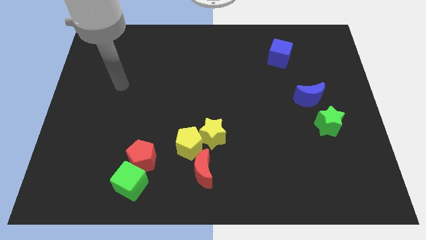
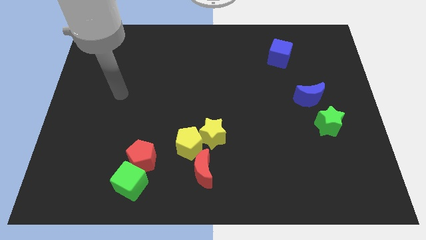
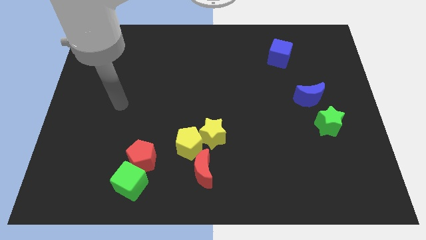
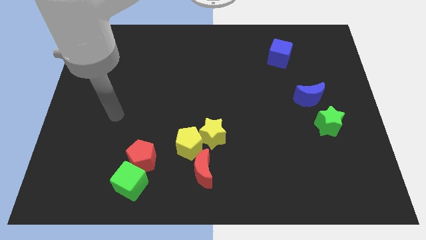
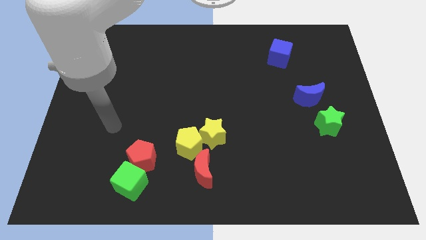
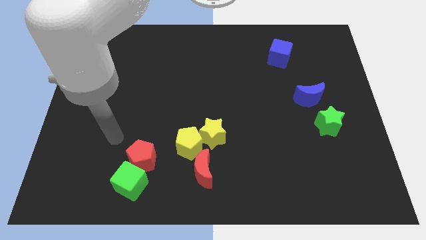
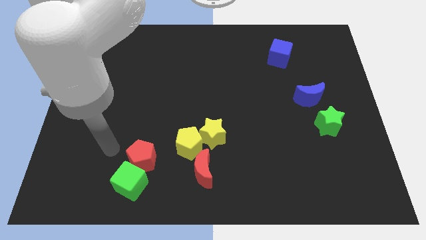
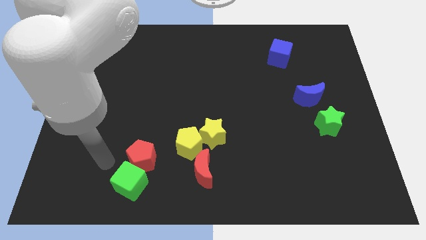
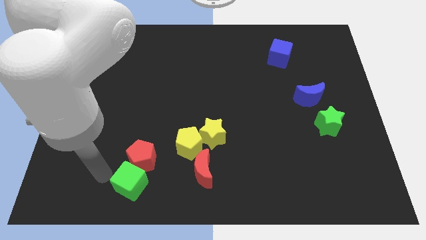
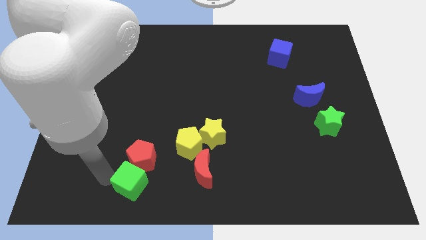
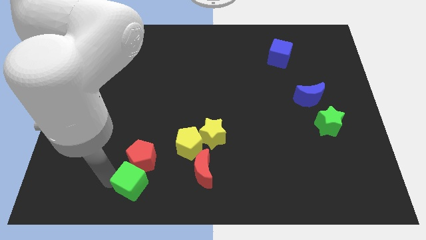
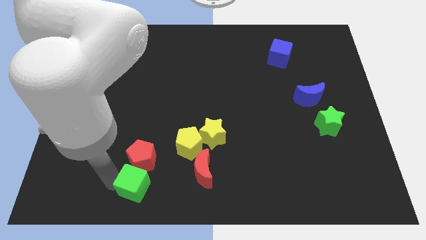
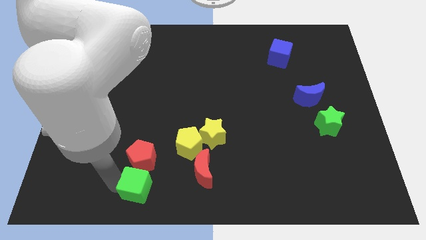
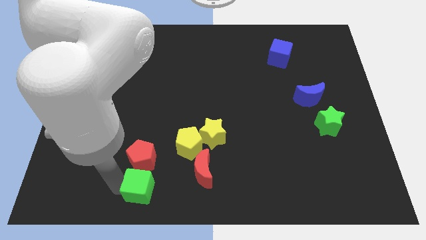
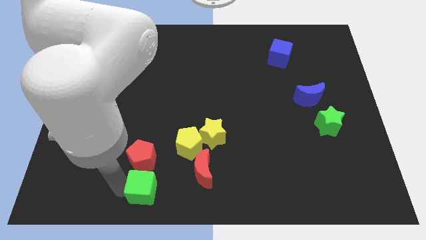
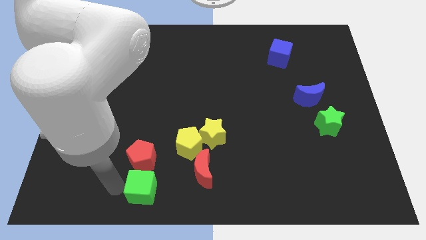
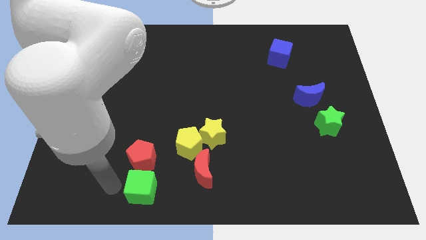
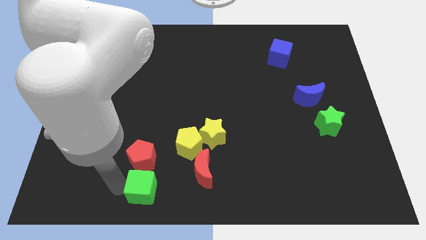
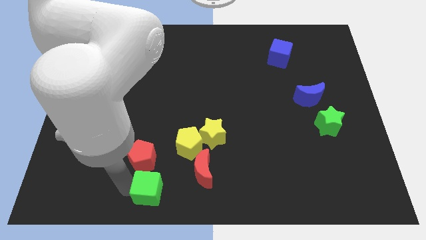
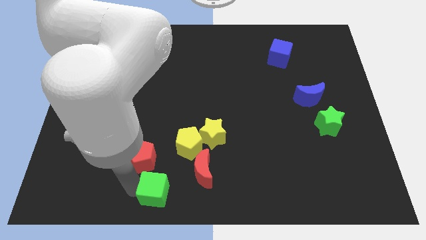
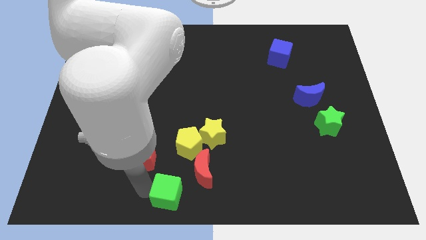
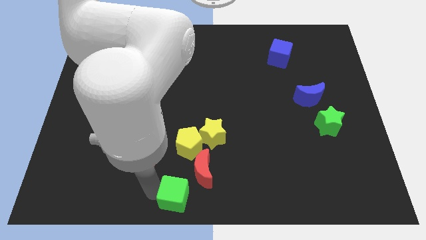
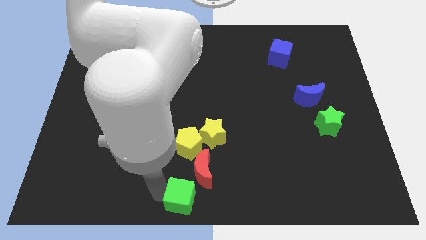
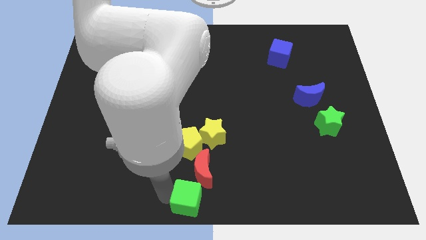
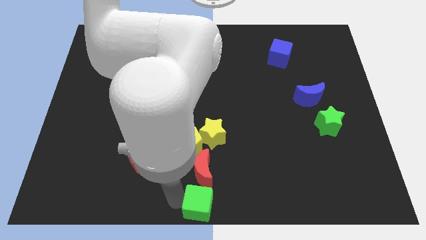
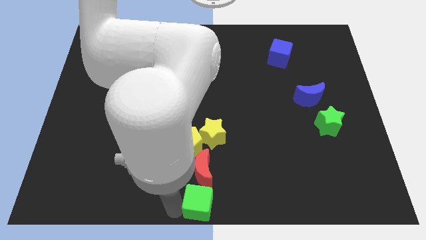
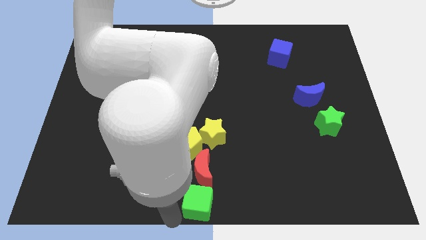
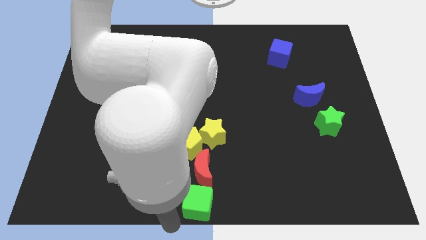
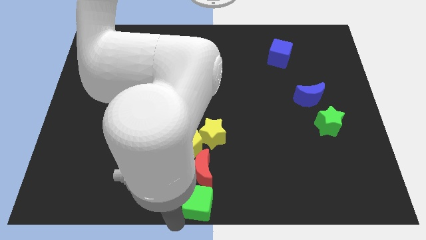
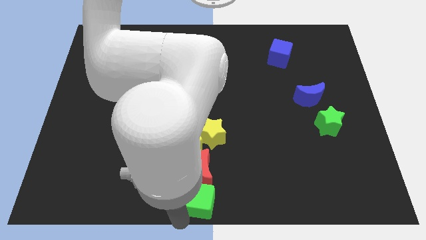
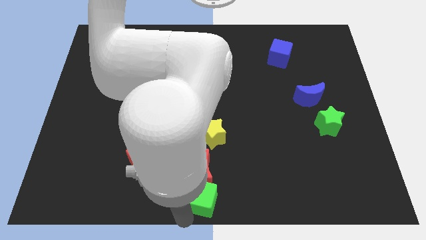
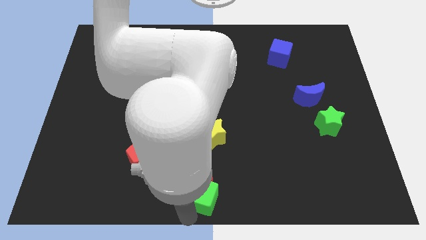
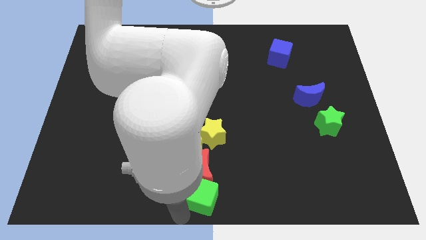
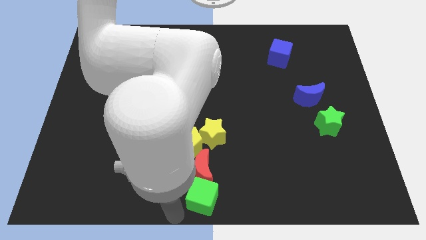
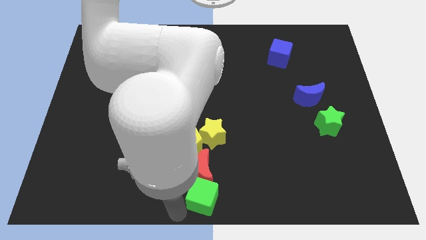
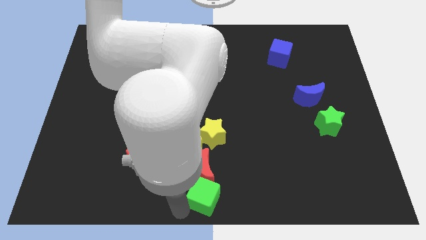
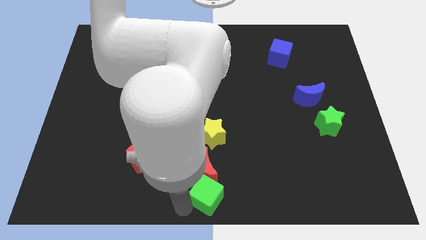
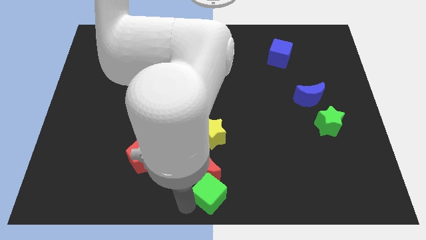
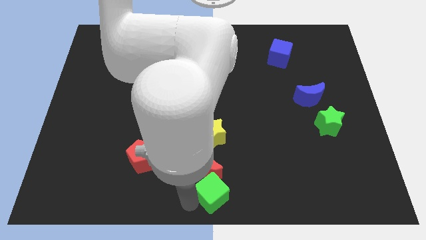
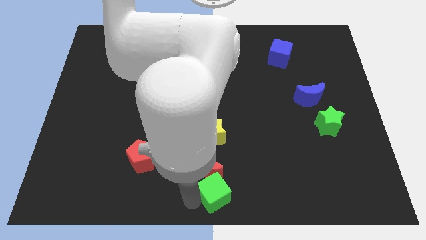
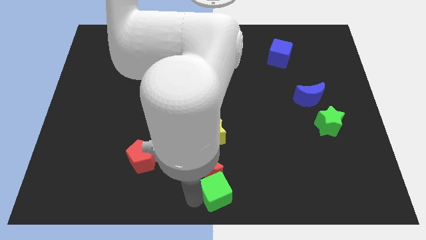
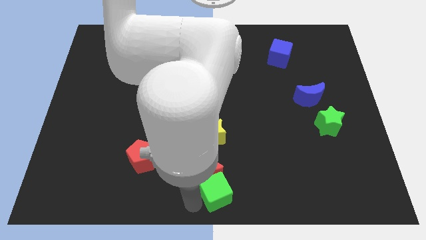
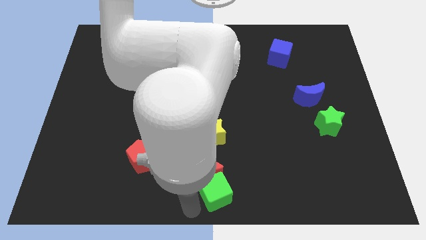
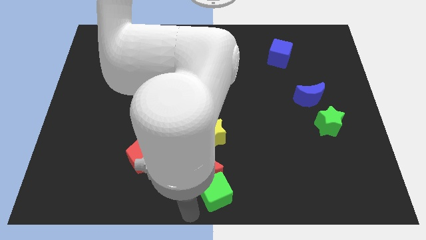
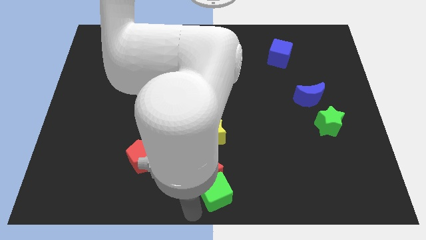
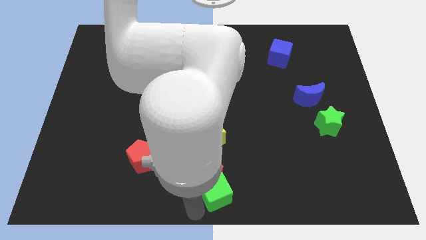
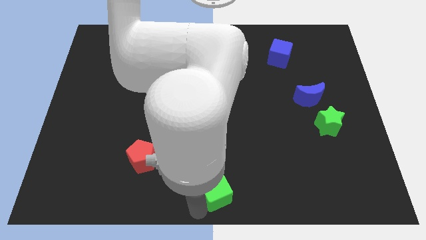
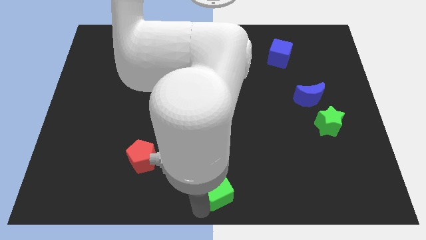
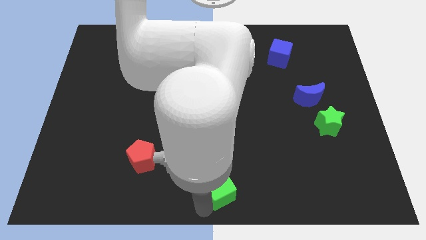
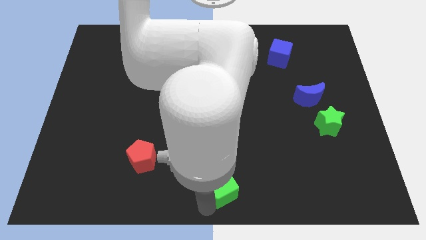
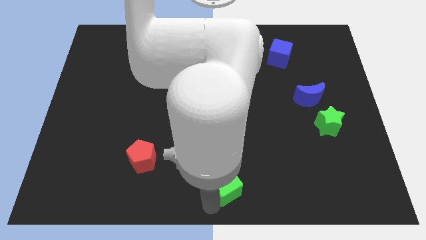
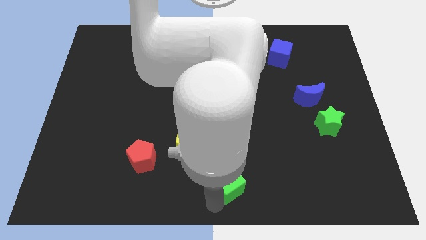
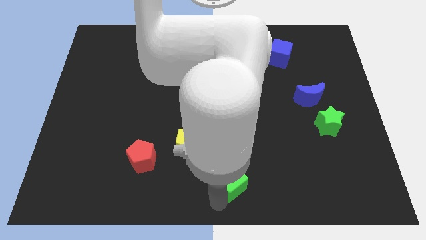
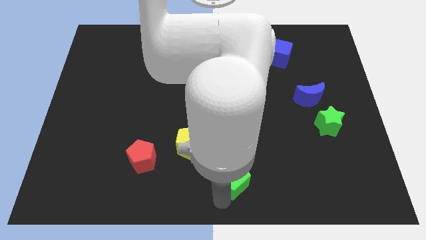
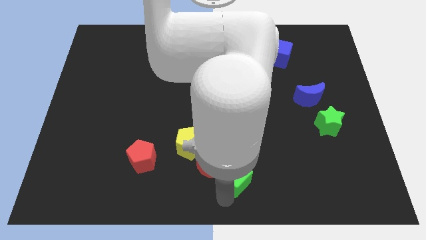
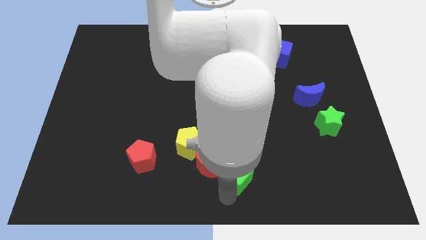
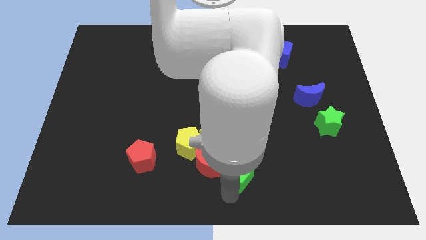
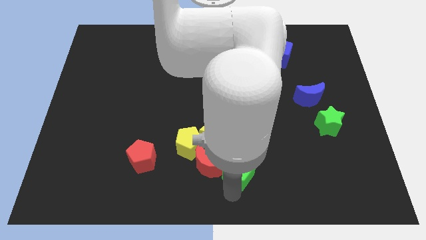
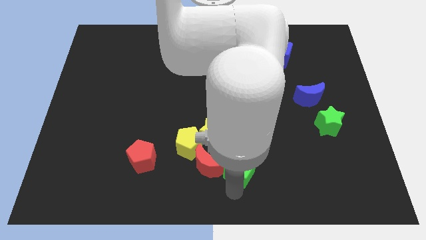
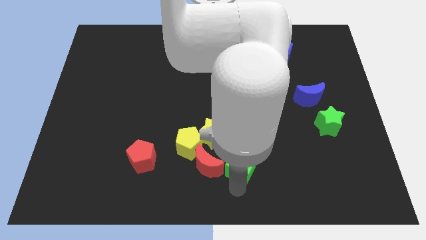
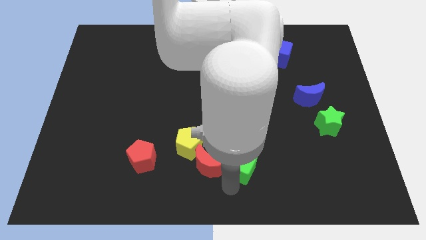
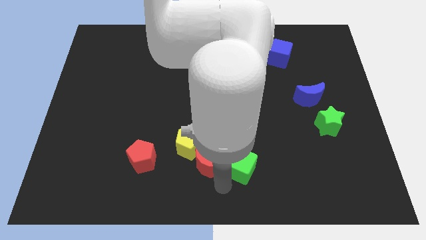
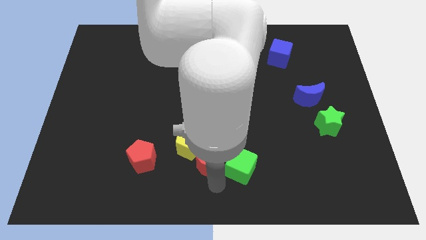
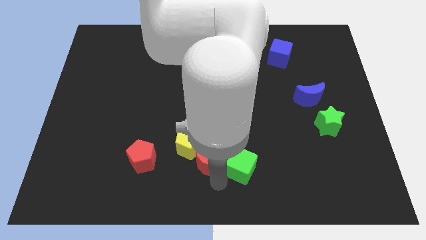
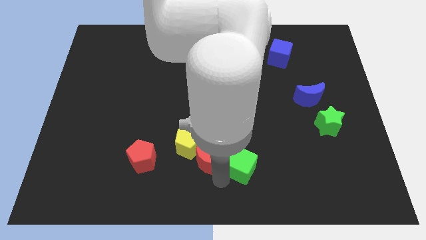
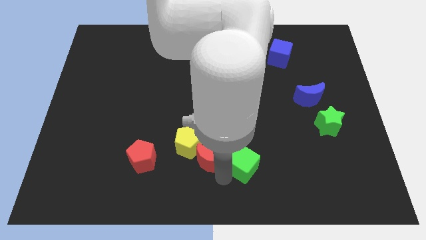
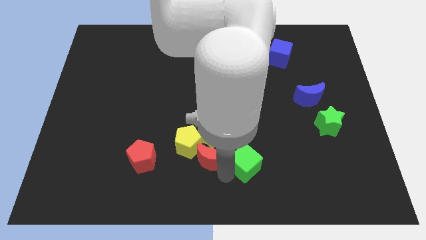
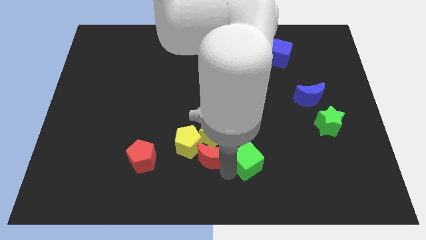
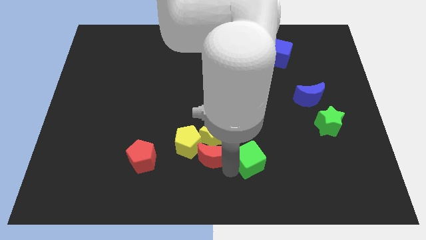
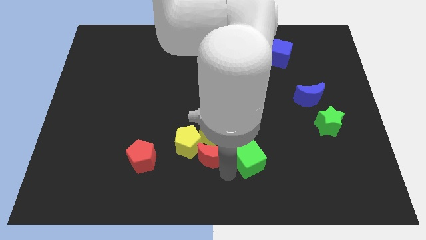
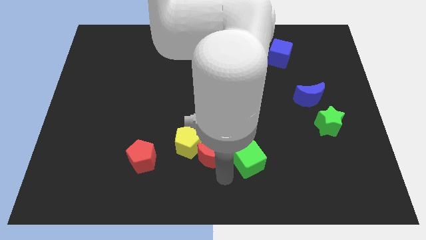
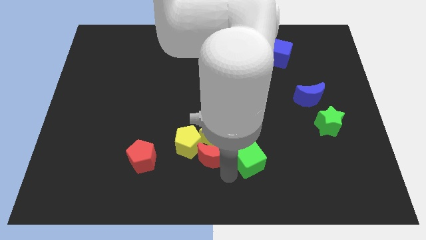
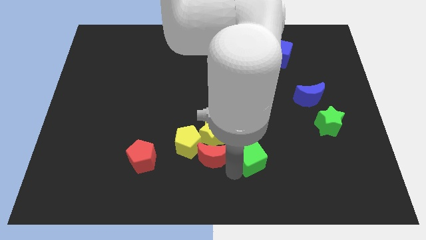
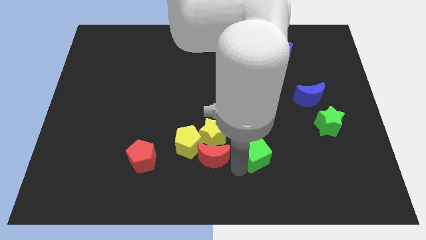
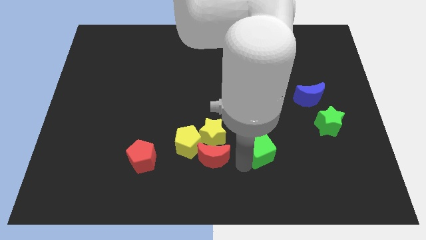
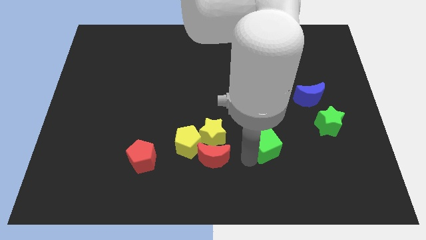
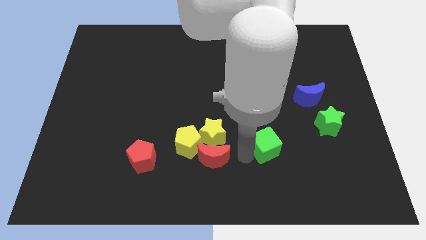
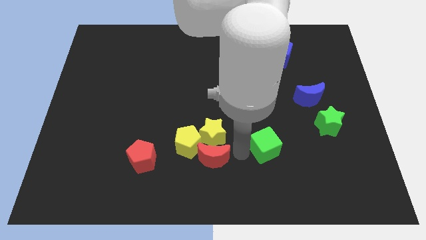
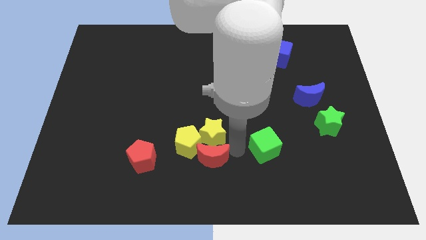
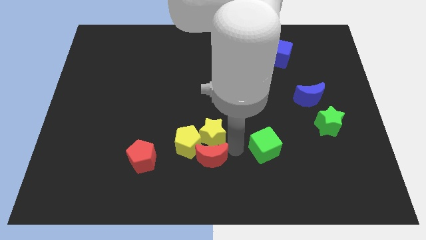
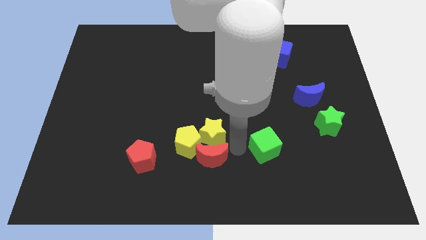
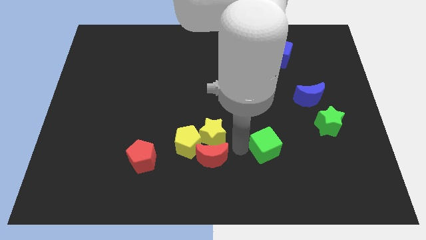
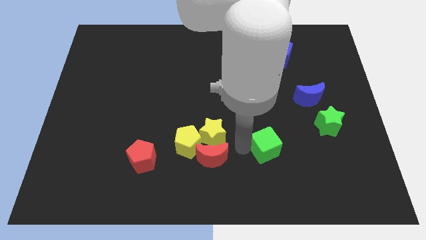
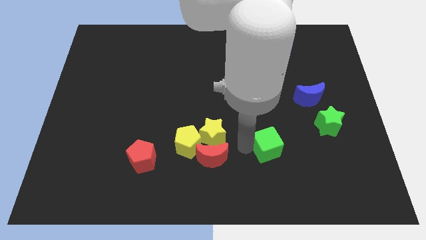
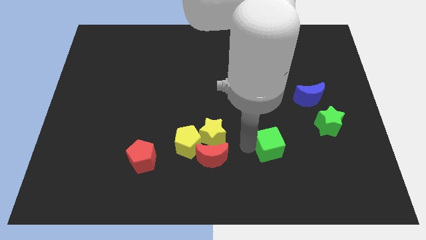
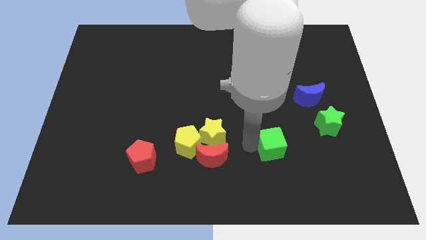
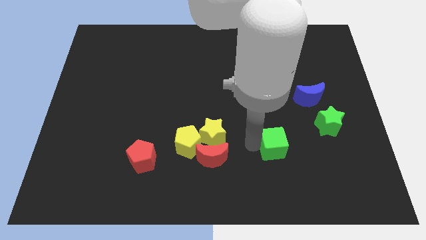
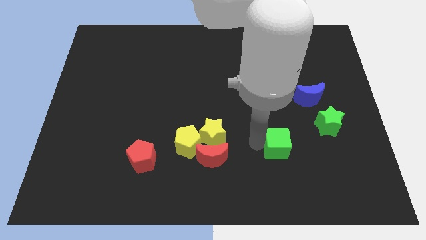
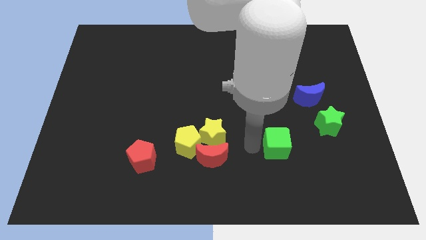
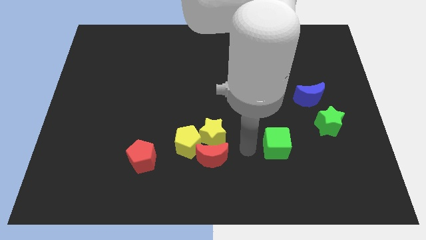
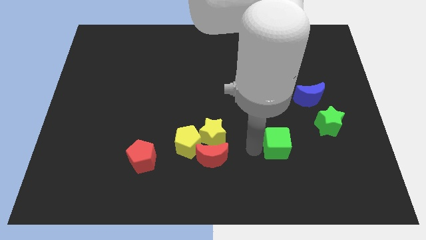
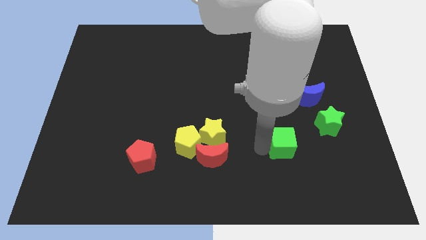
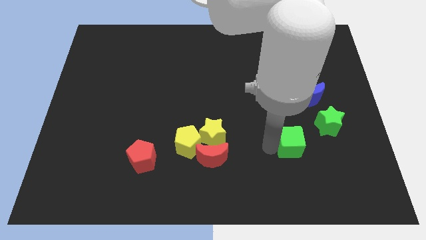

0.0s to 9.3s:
move the green cube to the bottom left of the green star
